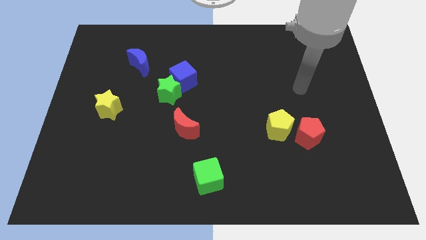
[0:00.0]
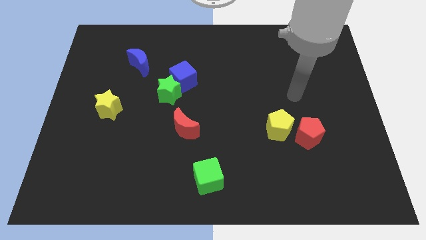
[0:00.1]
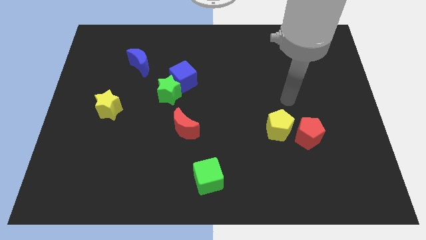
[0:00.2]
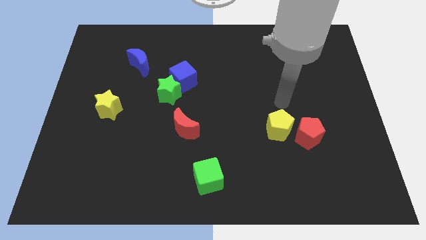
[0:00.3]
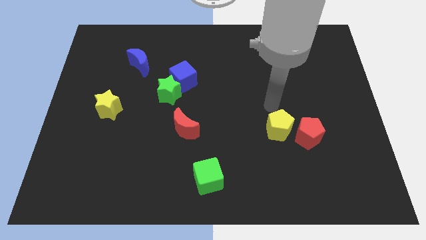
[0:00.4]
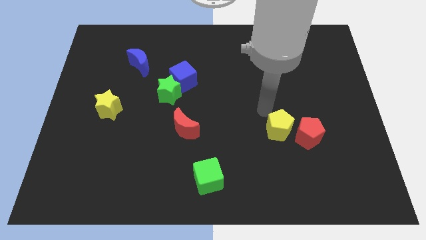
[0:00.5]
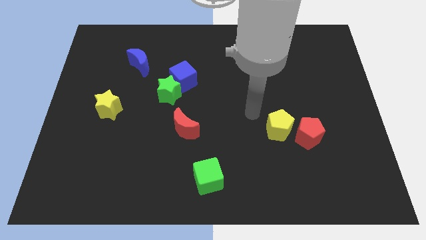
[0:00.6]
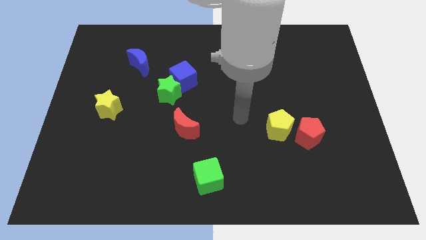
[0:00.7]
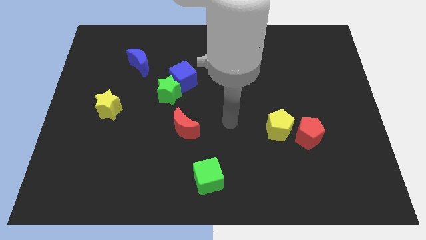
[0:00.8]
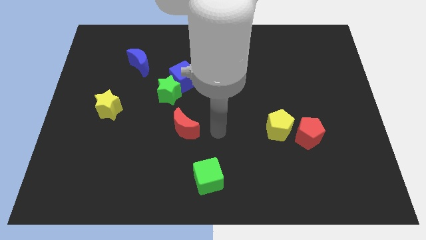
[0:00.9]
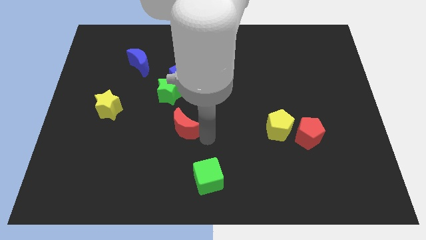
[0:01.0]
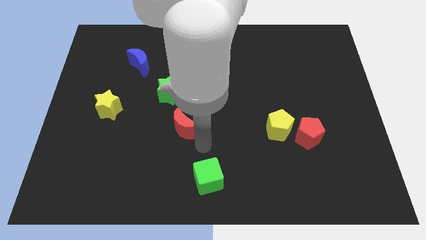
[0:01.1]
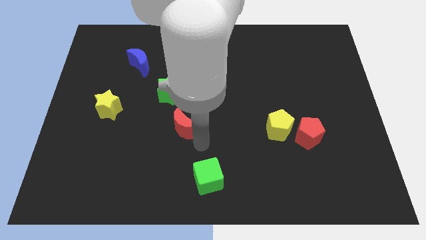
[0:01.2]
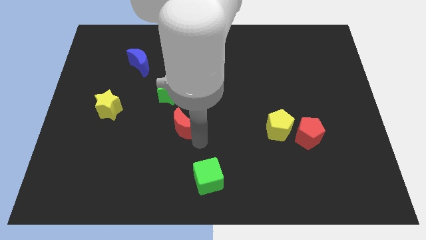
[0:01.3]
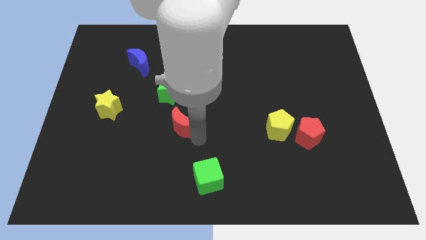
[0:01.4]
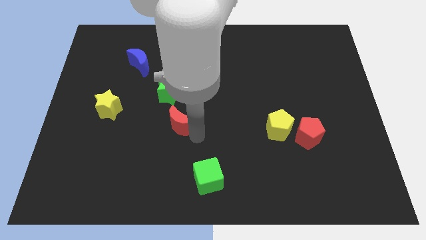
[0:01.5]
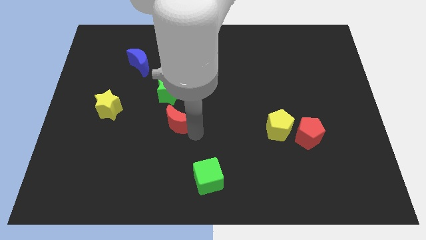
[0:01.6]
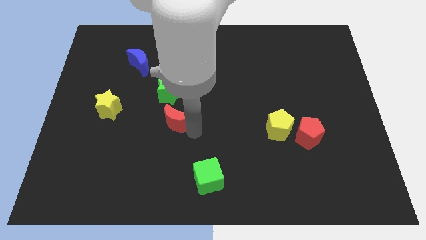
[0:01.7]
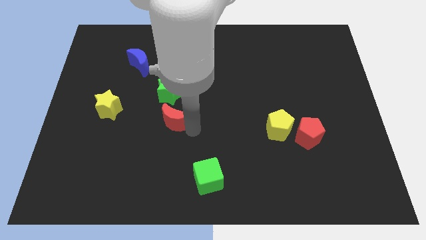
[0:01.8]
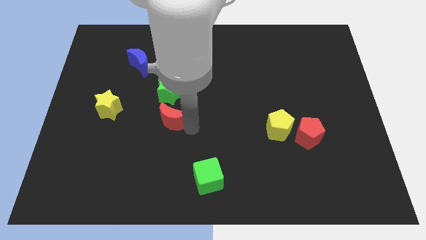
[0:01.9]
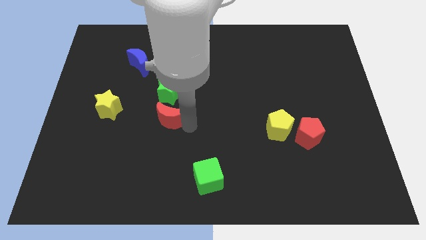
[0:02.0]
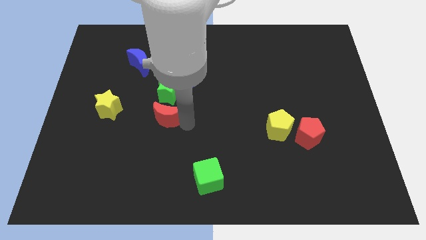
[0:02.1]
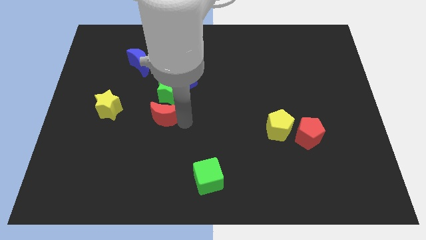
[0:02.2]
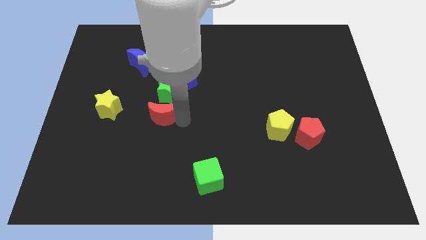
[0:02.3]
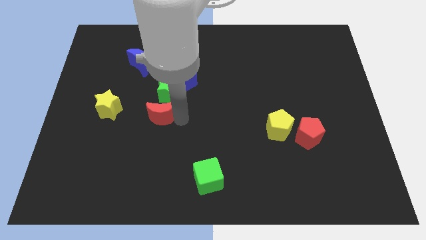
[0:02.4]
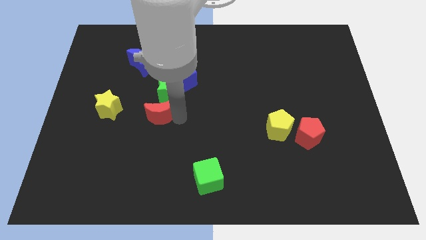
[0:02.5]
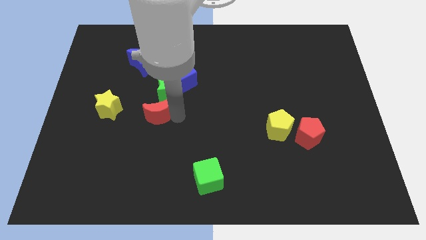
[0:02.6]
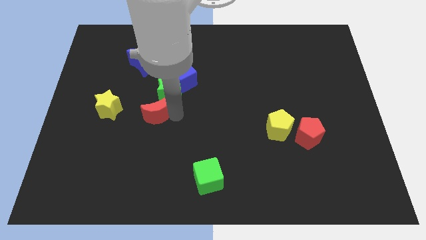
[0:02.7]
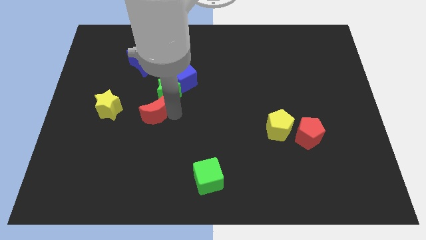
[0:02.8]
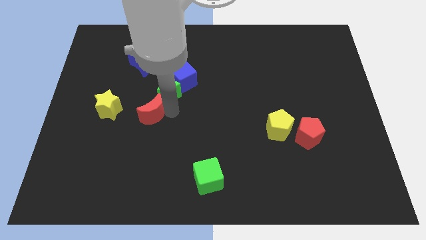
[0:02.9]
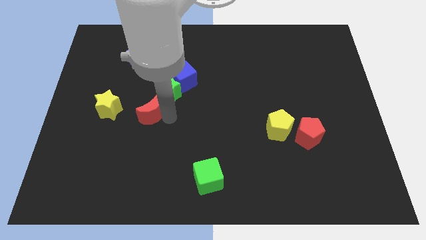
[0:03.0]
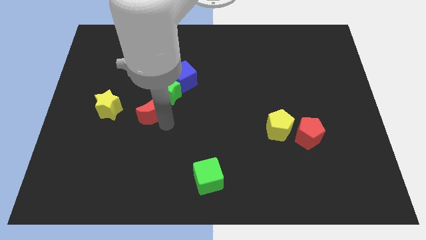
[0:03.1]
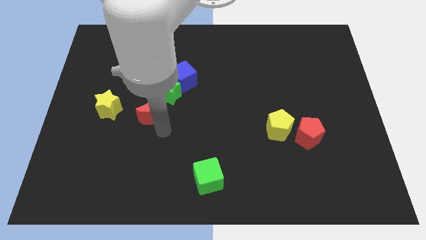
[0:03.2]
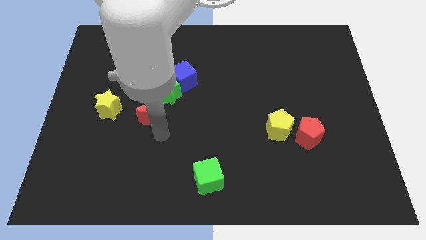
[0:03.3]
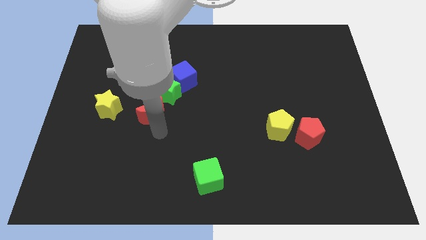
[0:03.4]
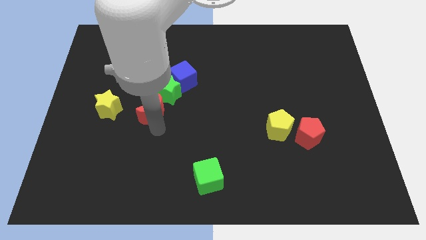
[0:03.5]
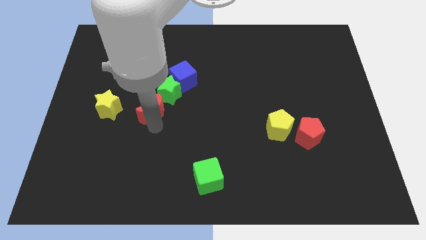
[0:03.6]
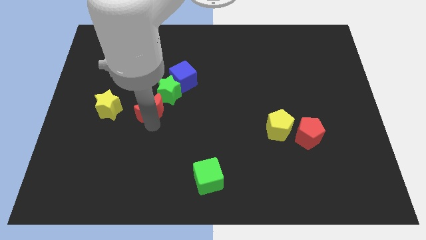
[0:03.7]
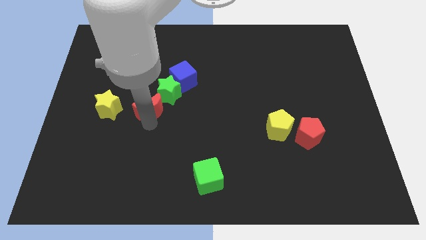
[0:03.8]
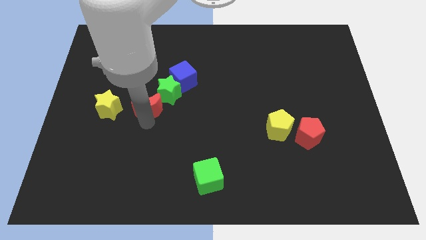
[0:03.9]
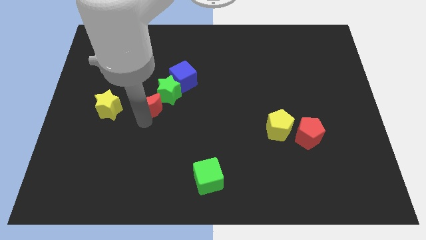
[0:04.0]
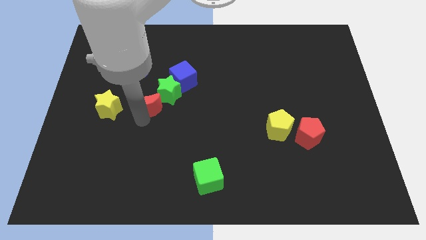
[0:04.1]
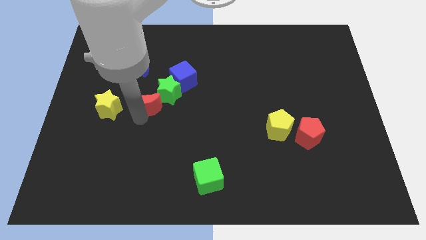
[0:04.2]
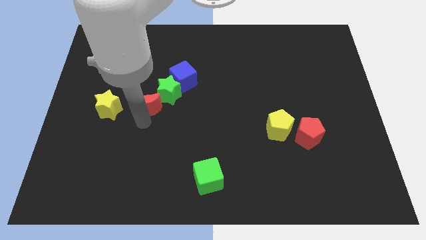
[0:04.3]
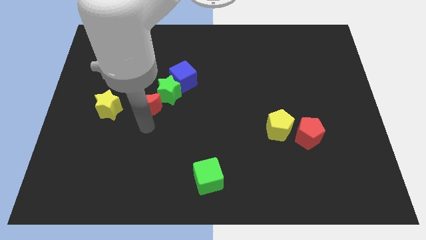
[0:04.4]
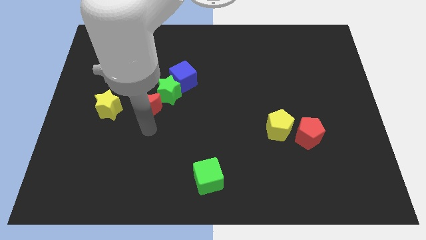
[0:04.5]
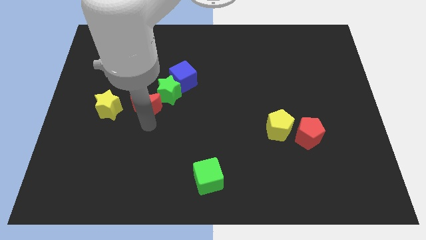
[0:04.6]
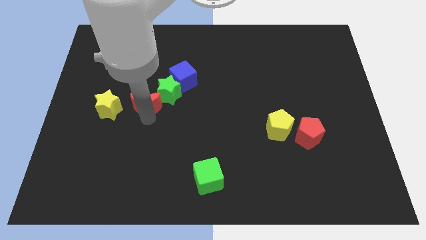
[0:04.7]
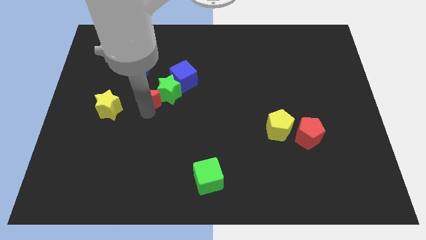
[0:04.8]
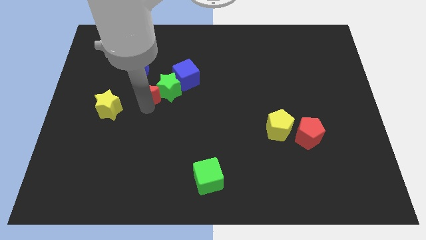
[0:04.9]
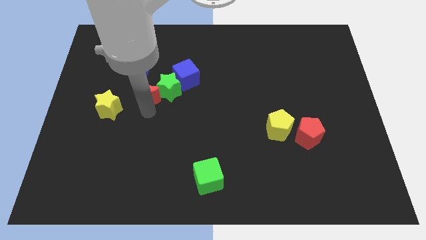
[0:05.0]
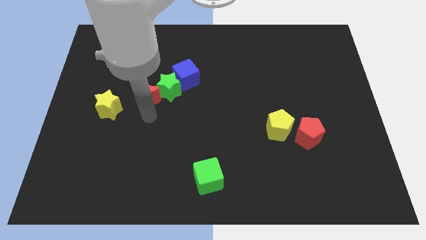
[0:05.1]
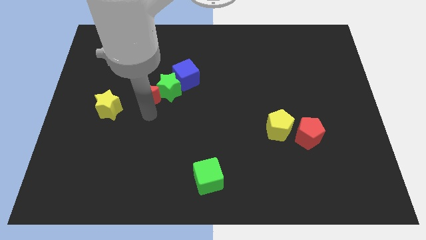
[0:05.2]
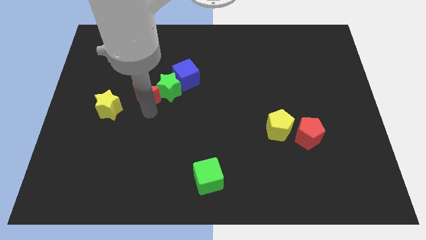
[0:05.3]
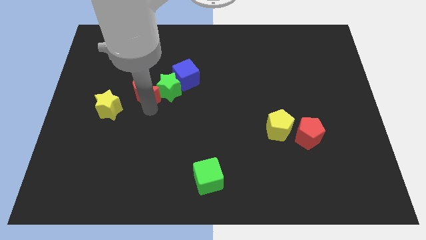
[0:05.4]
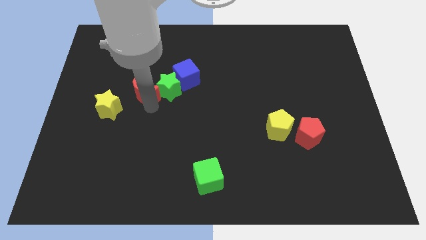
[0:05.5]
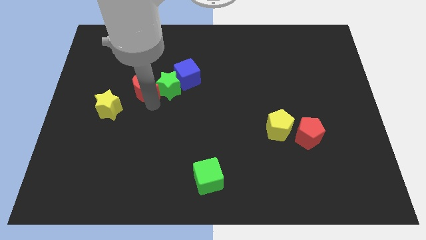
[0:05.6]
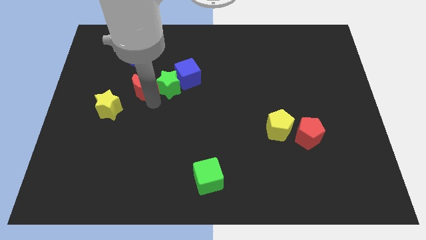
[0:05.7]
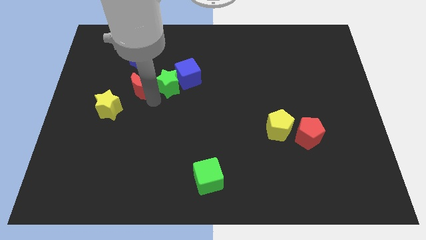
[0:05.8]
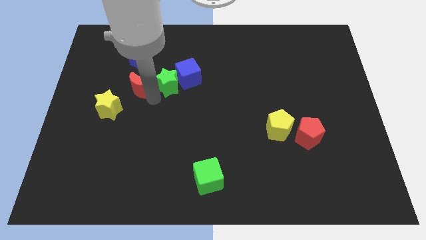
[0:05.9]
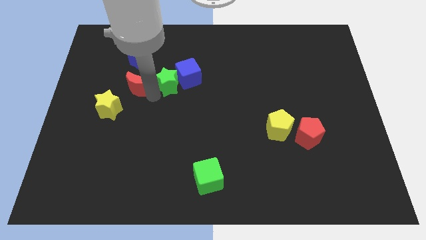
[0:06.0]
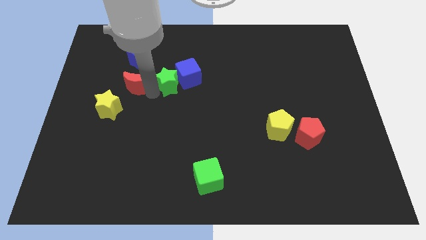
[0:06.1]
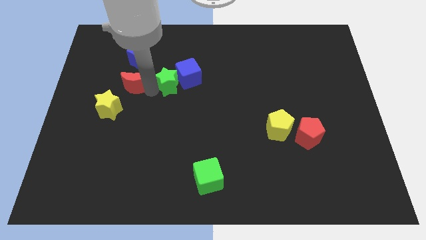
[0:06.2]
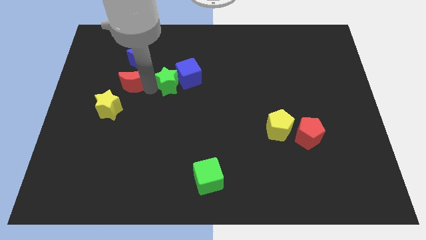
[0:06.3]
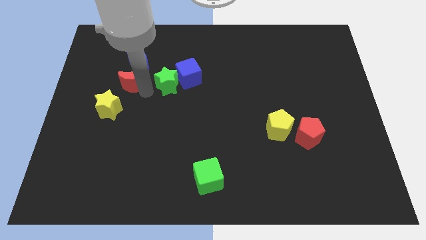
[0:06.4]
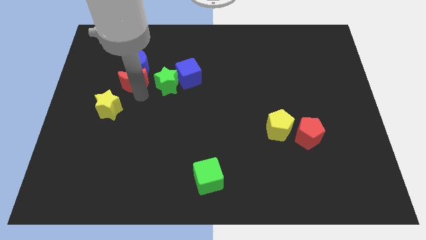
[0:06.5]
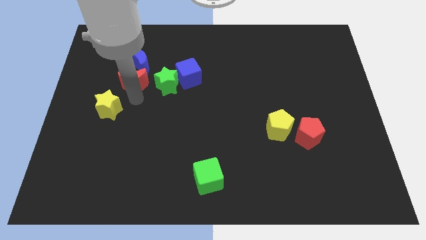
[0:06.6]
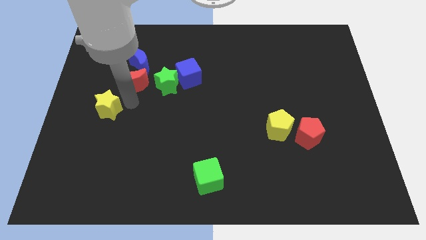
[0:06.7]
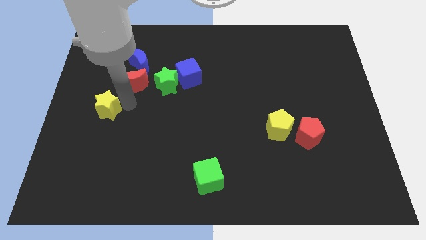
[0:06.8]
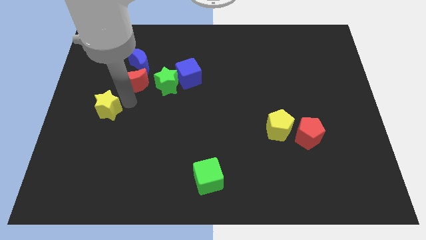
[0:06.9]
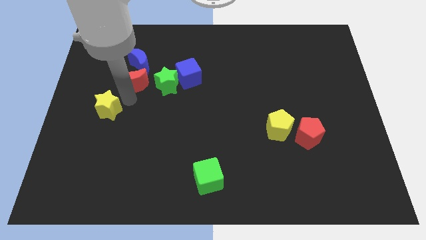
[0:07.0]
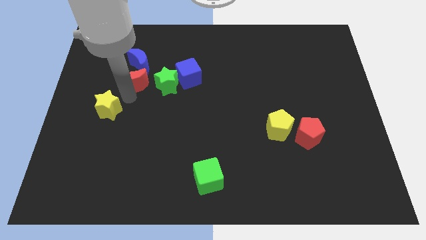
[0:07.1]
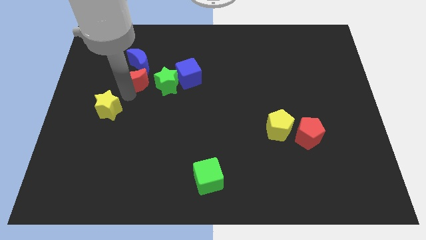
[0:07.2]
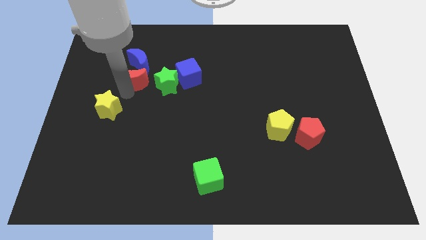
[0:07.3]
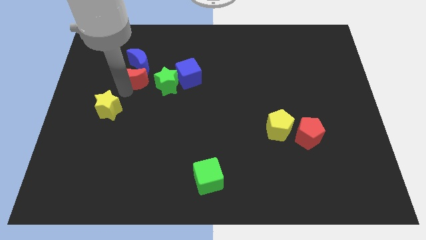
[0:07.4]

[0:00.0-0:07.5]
slide the red moon close to the blue moon
